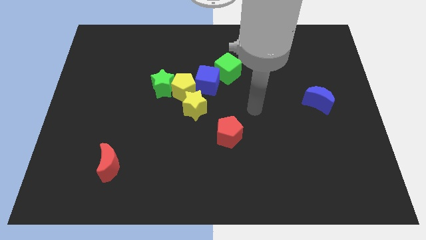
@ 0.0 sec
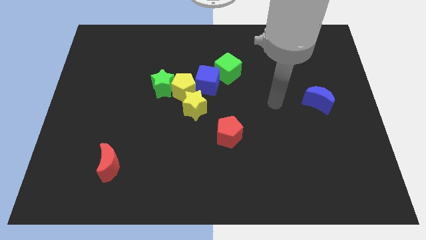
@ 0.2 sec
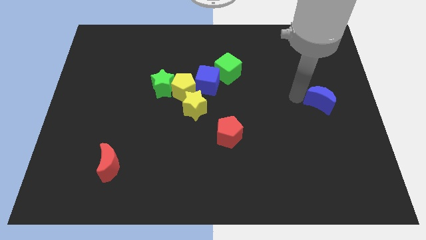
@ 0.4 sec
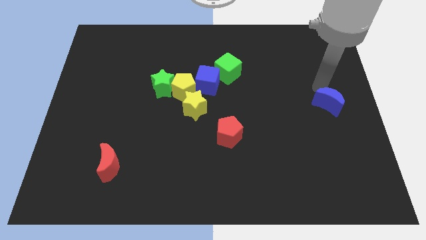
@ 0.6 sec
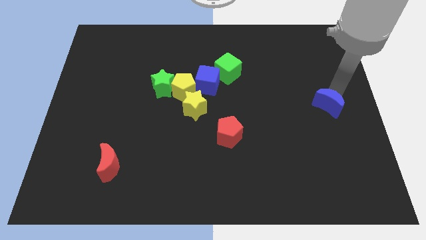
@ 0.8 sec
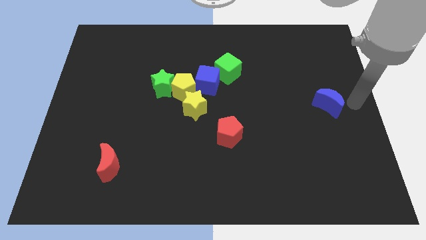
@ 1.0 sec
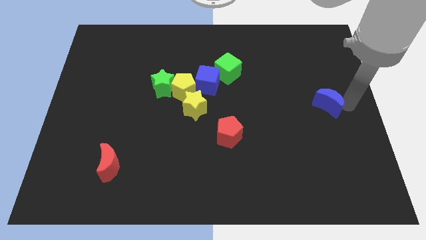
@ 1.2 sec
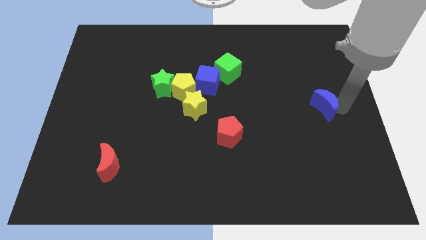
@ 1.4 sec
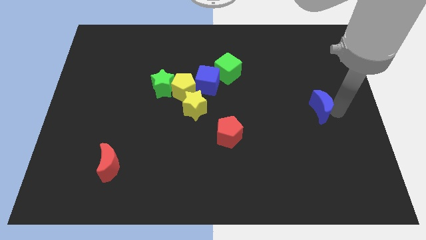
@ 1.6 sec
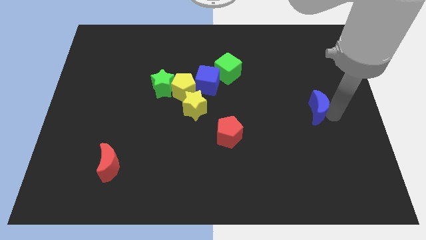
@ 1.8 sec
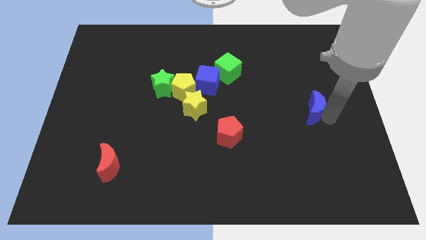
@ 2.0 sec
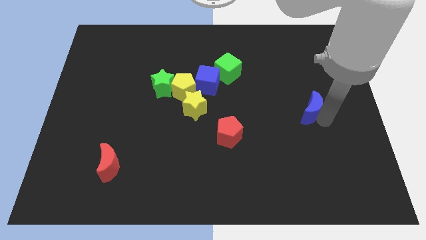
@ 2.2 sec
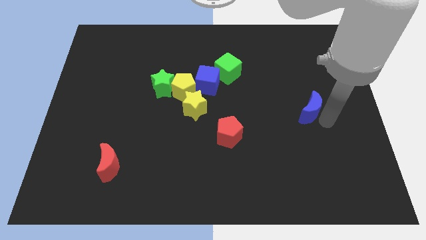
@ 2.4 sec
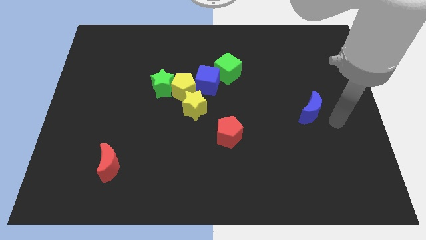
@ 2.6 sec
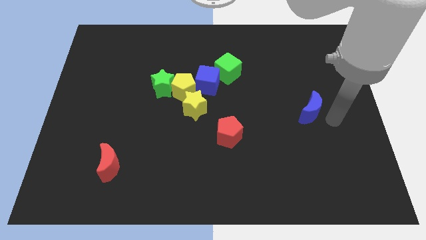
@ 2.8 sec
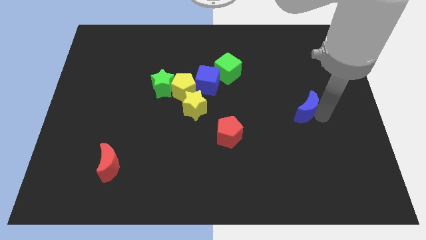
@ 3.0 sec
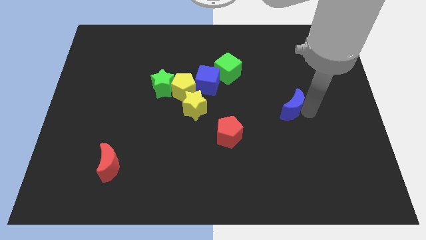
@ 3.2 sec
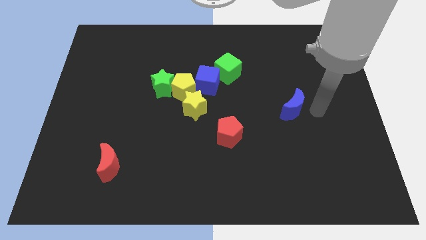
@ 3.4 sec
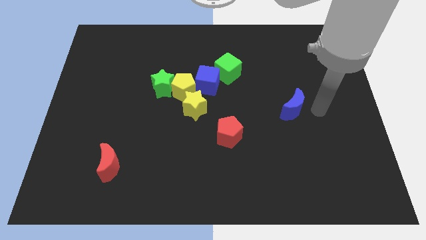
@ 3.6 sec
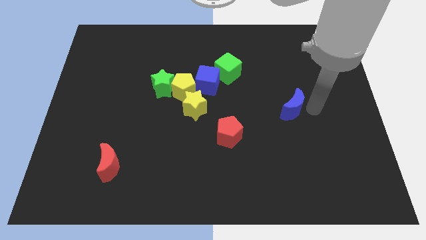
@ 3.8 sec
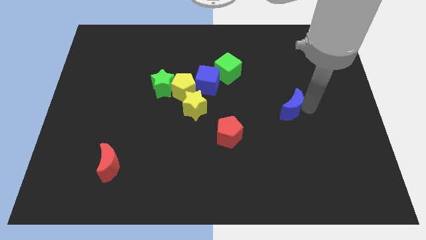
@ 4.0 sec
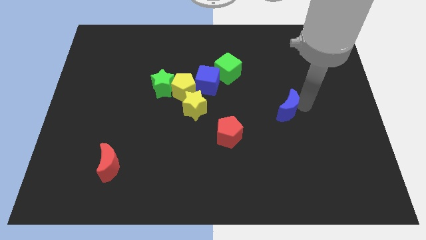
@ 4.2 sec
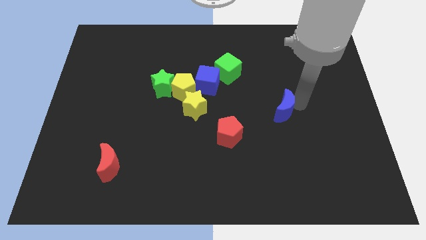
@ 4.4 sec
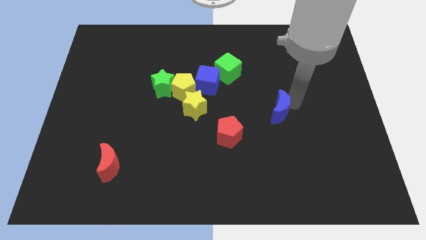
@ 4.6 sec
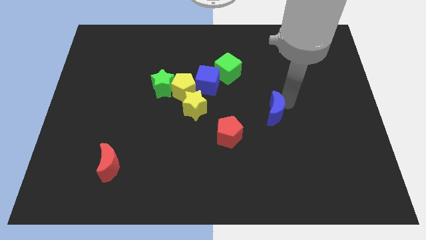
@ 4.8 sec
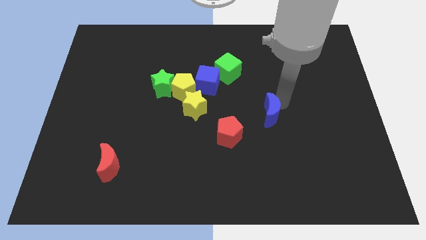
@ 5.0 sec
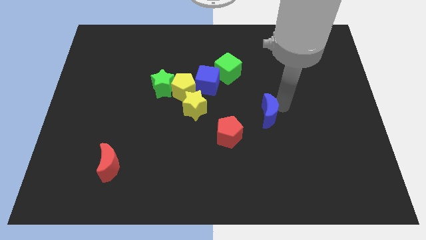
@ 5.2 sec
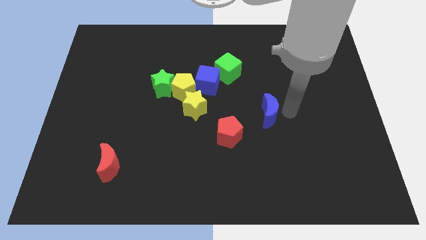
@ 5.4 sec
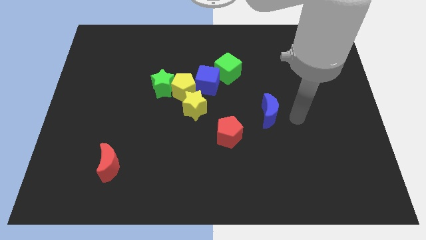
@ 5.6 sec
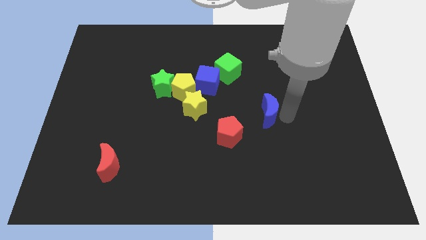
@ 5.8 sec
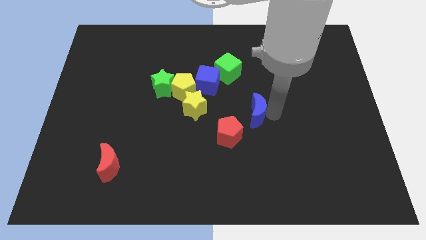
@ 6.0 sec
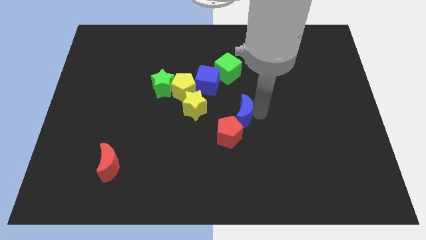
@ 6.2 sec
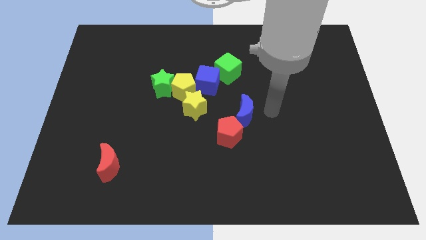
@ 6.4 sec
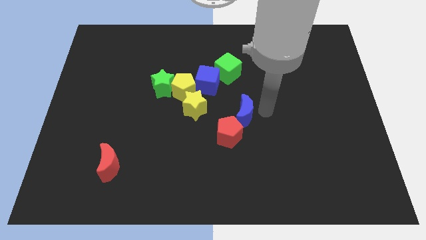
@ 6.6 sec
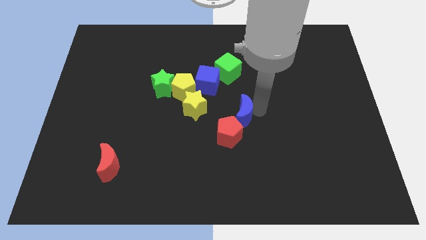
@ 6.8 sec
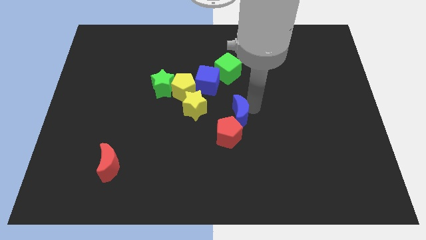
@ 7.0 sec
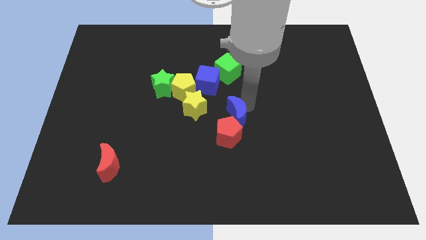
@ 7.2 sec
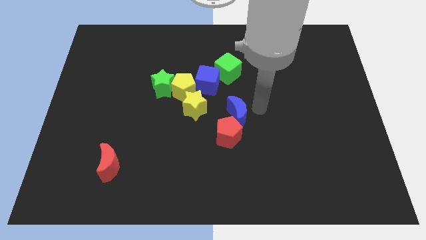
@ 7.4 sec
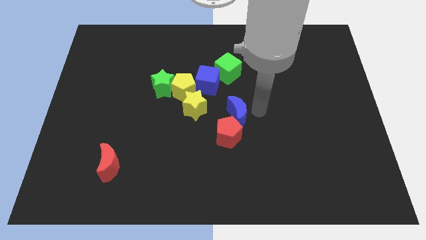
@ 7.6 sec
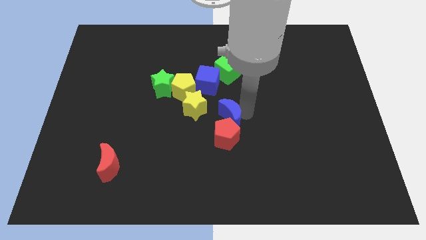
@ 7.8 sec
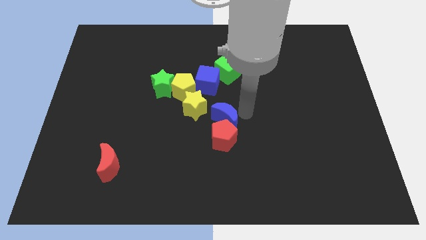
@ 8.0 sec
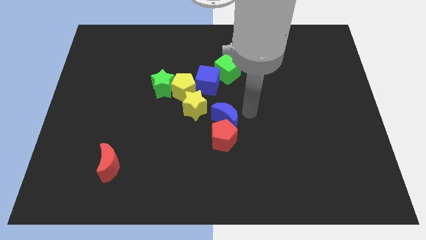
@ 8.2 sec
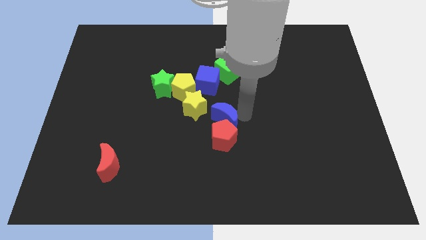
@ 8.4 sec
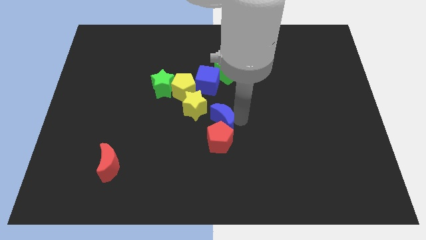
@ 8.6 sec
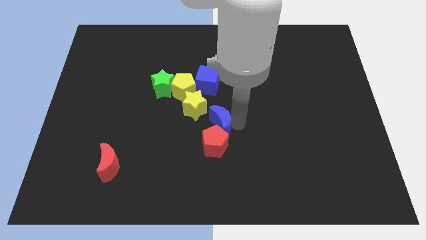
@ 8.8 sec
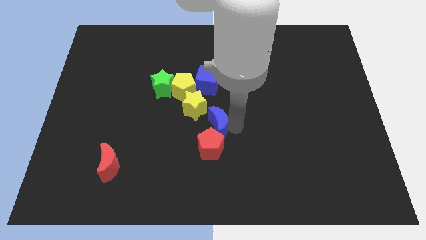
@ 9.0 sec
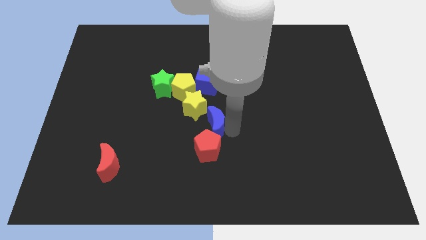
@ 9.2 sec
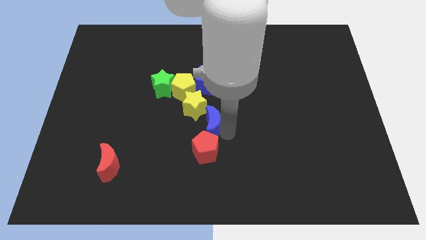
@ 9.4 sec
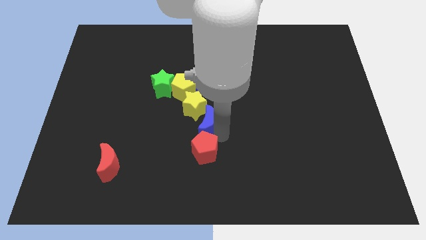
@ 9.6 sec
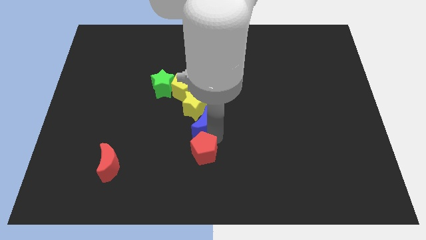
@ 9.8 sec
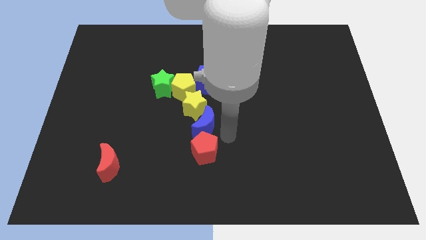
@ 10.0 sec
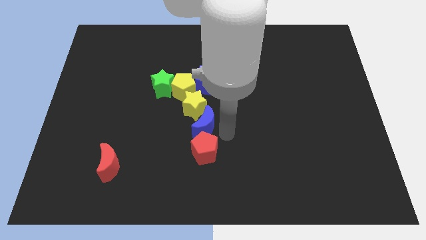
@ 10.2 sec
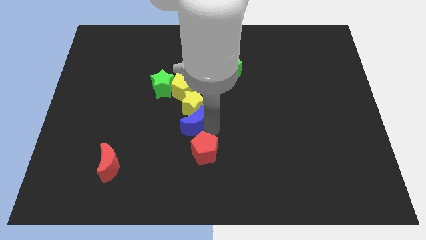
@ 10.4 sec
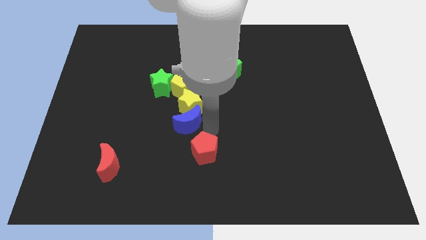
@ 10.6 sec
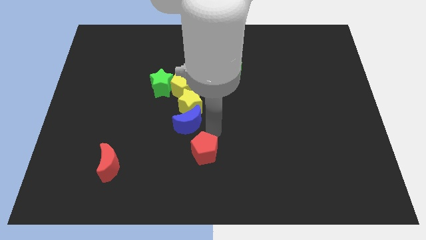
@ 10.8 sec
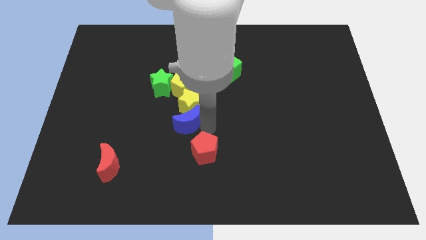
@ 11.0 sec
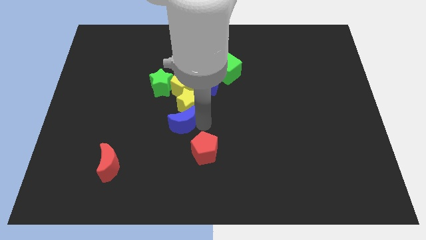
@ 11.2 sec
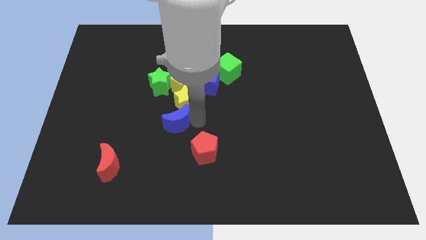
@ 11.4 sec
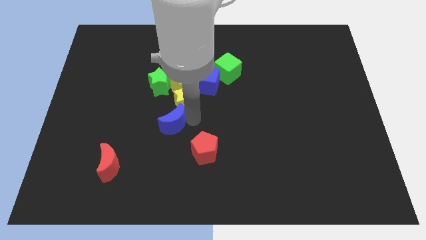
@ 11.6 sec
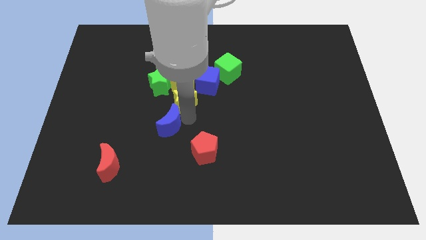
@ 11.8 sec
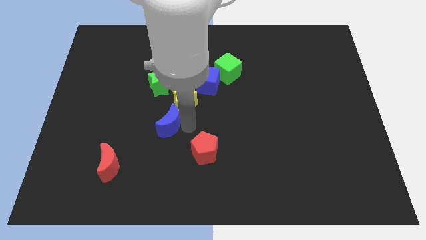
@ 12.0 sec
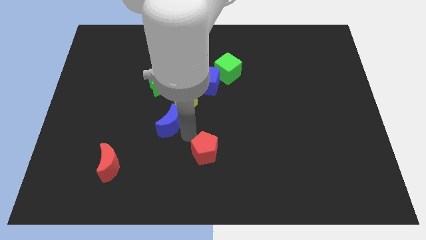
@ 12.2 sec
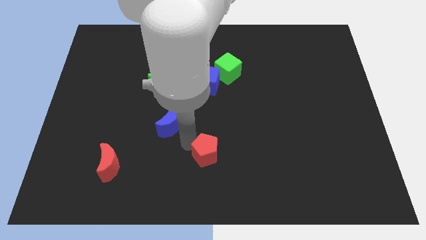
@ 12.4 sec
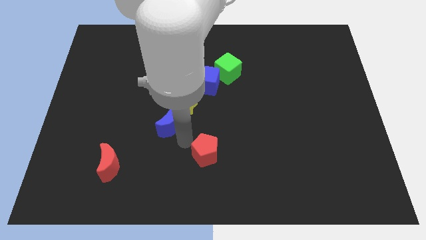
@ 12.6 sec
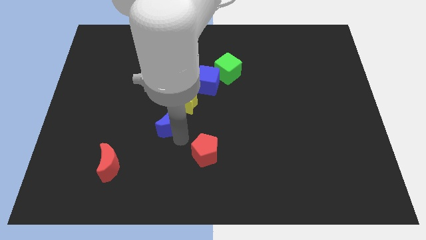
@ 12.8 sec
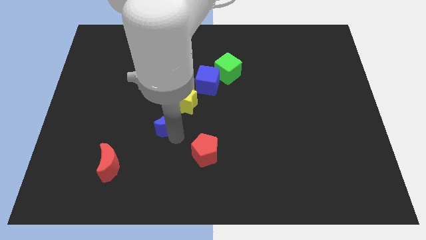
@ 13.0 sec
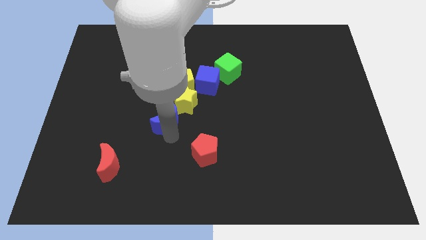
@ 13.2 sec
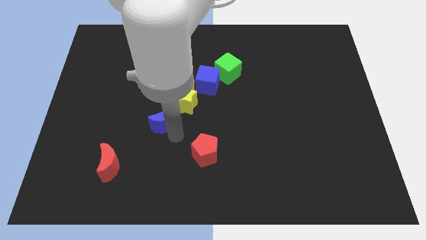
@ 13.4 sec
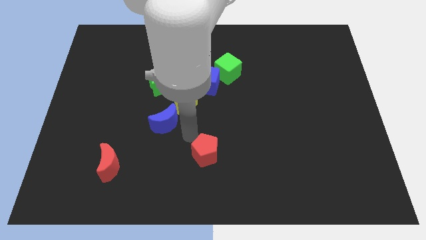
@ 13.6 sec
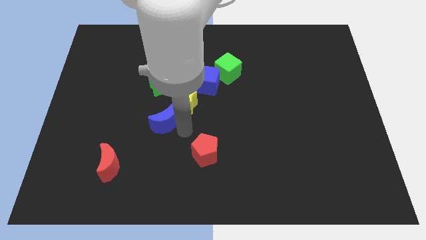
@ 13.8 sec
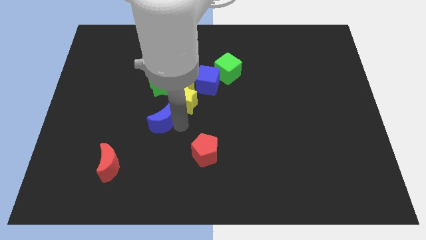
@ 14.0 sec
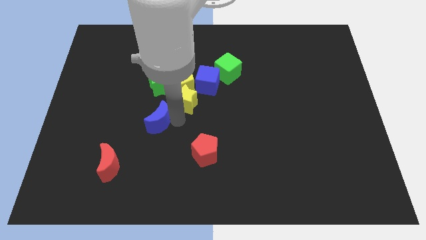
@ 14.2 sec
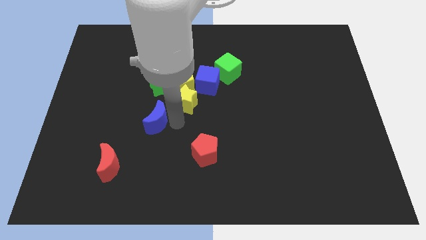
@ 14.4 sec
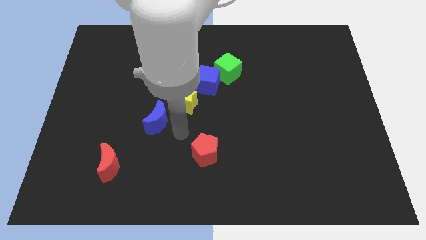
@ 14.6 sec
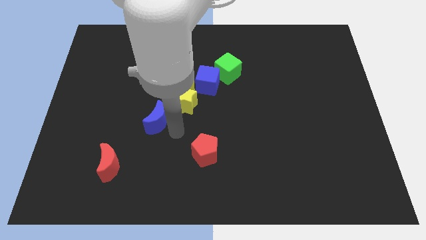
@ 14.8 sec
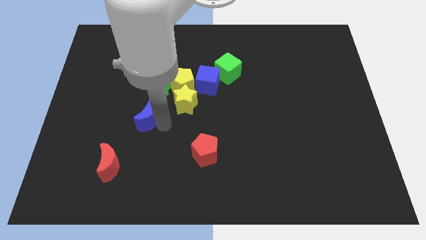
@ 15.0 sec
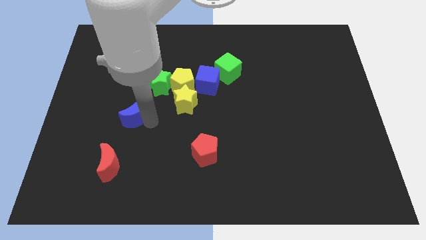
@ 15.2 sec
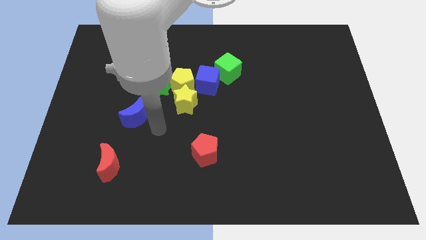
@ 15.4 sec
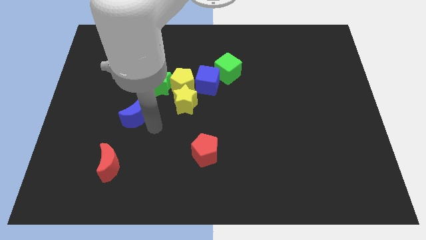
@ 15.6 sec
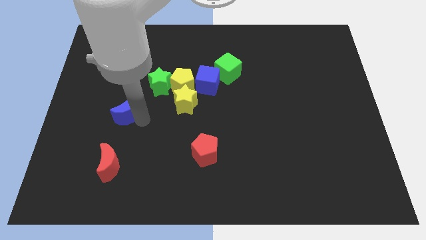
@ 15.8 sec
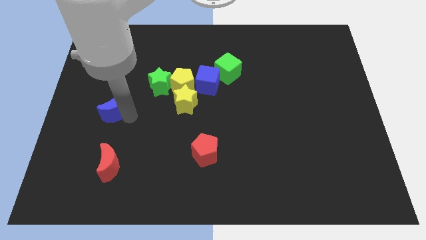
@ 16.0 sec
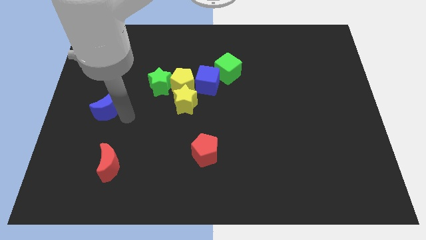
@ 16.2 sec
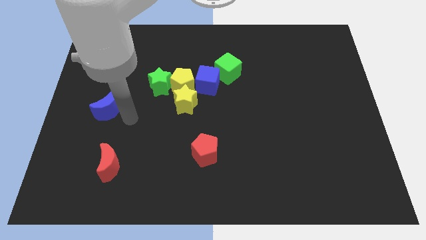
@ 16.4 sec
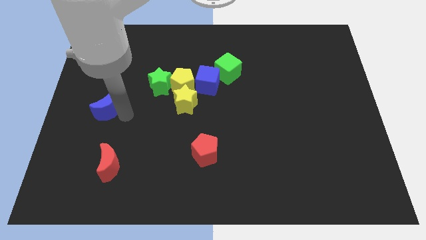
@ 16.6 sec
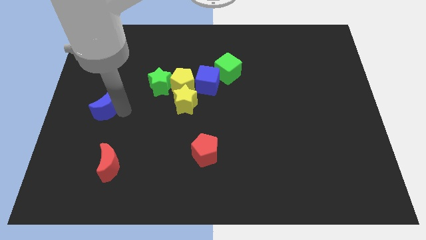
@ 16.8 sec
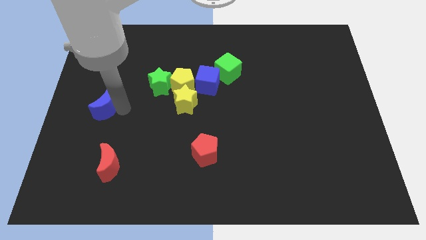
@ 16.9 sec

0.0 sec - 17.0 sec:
move the blue moon to the left side of the board
